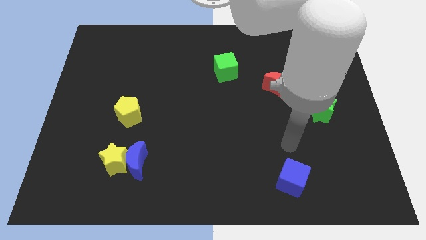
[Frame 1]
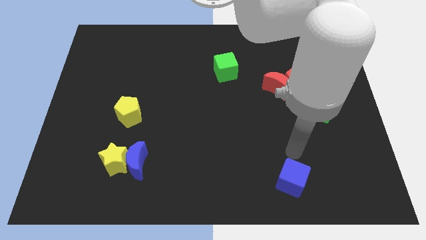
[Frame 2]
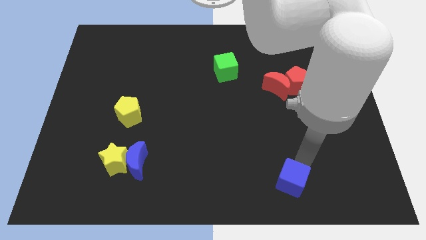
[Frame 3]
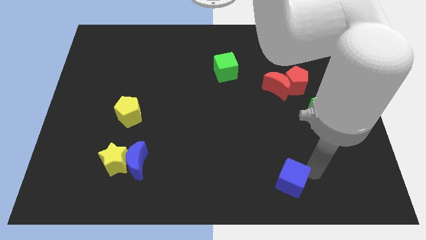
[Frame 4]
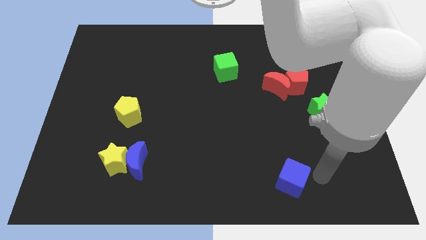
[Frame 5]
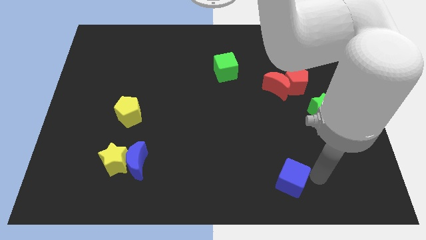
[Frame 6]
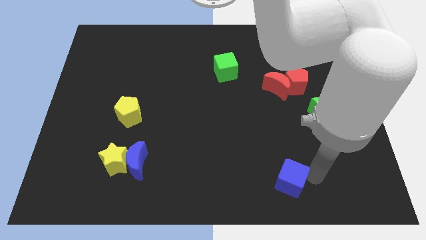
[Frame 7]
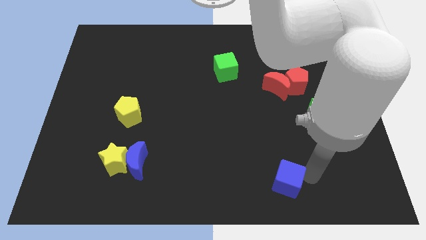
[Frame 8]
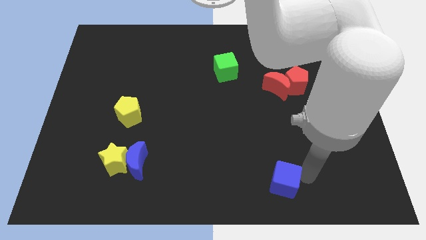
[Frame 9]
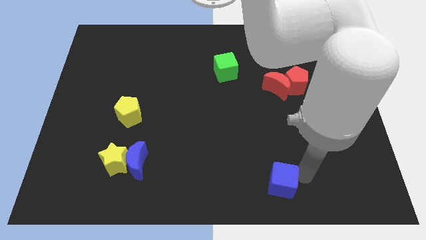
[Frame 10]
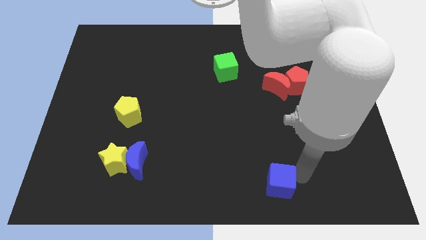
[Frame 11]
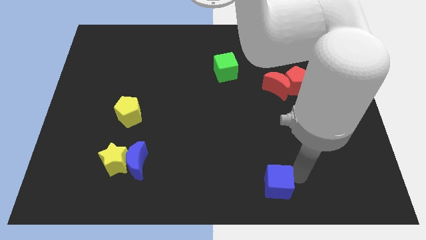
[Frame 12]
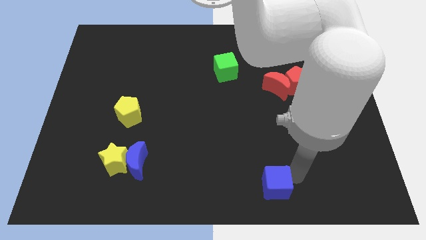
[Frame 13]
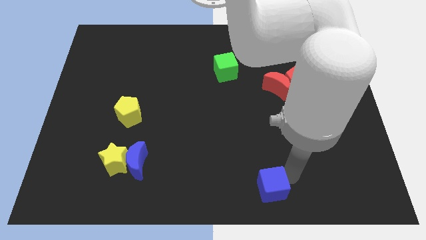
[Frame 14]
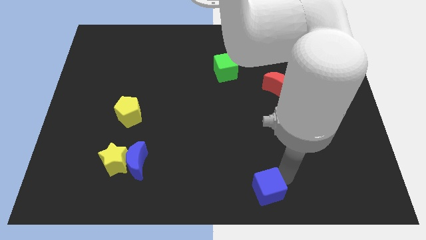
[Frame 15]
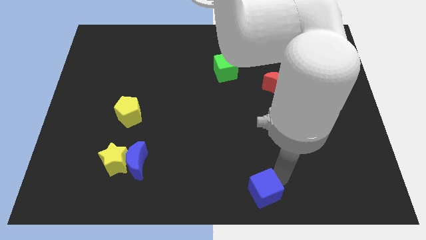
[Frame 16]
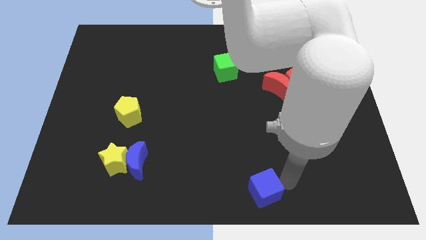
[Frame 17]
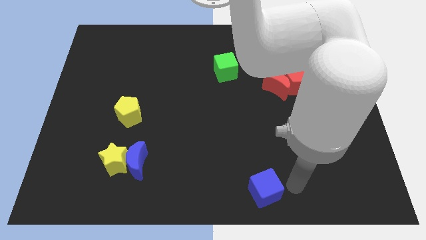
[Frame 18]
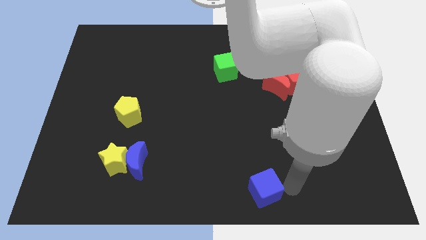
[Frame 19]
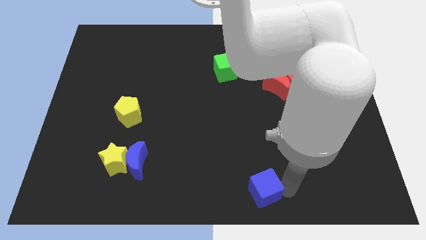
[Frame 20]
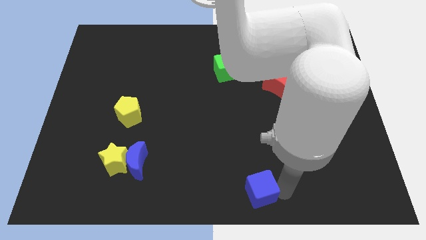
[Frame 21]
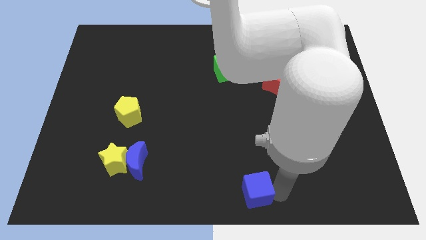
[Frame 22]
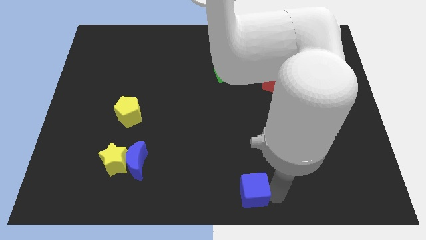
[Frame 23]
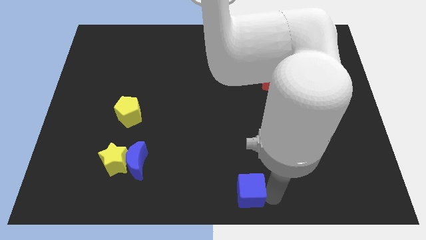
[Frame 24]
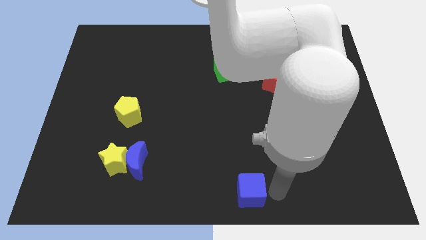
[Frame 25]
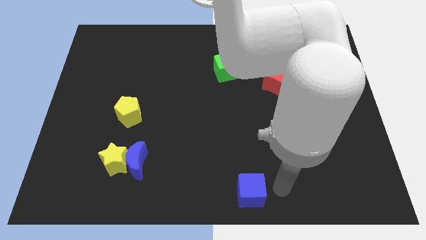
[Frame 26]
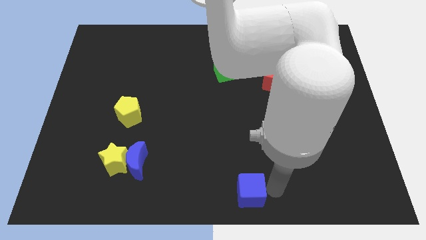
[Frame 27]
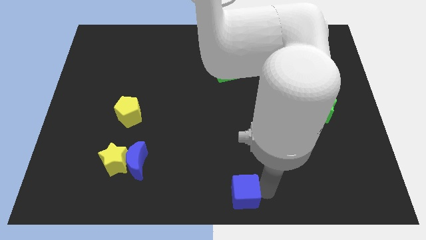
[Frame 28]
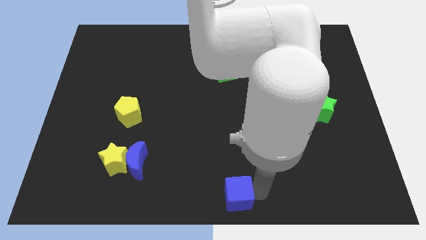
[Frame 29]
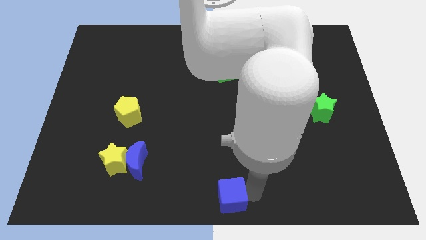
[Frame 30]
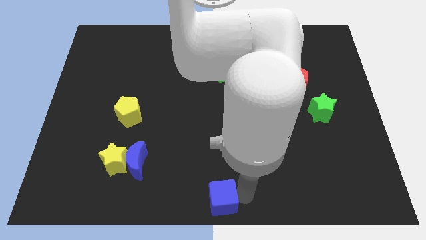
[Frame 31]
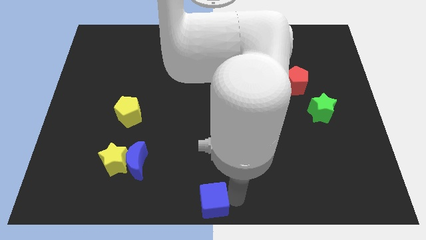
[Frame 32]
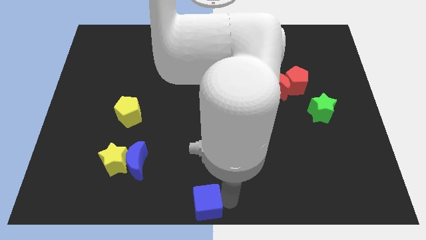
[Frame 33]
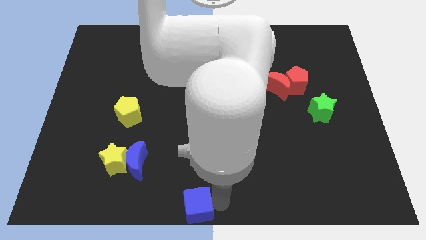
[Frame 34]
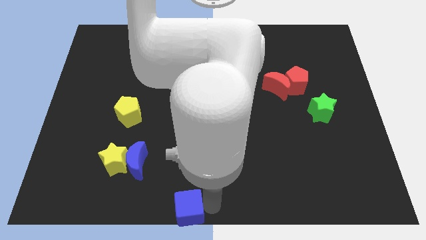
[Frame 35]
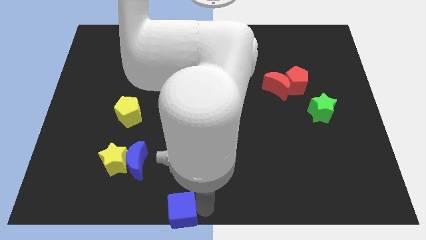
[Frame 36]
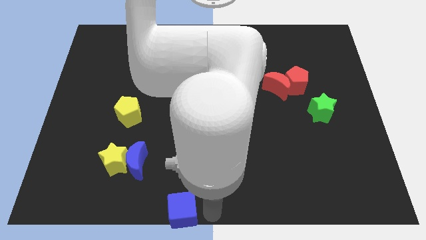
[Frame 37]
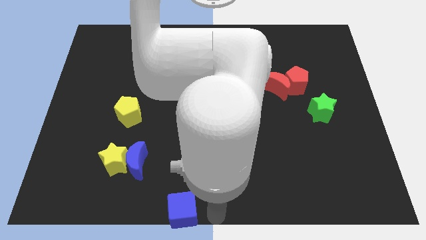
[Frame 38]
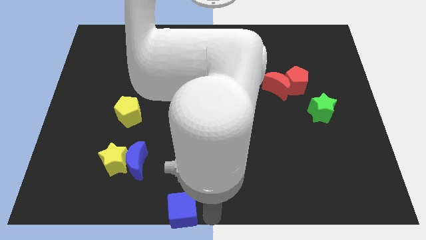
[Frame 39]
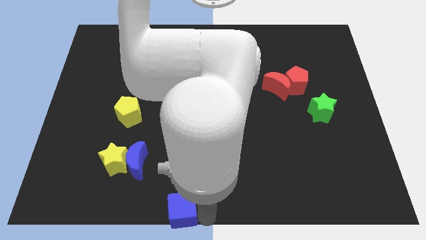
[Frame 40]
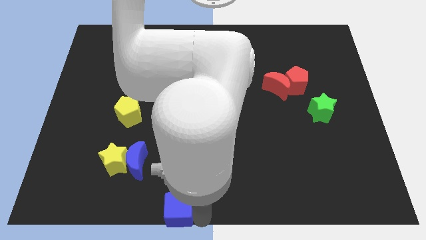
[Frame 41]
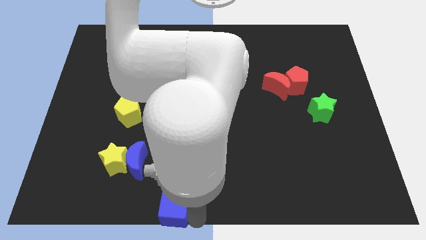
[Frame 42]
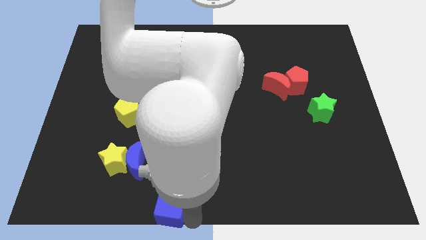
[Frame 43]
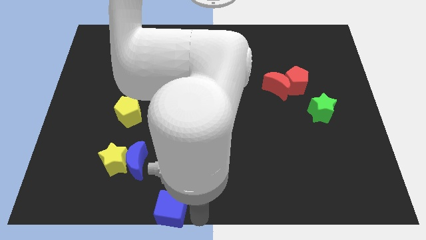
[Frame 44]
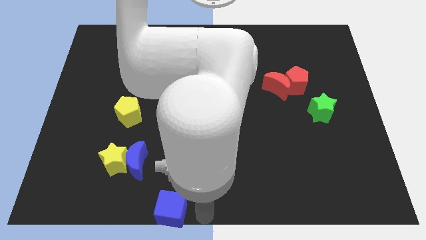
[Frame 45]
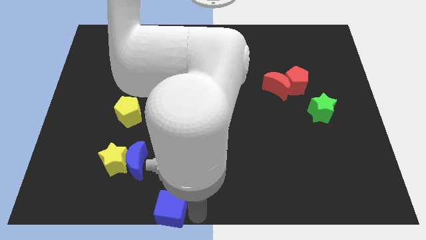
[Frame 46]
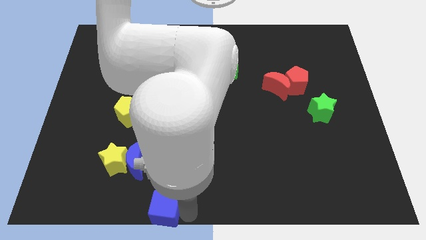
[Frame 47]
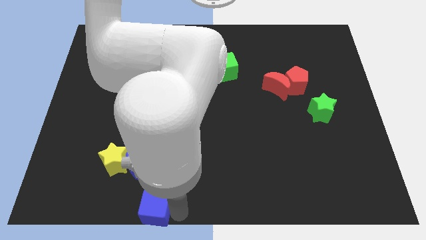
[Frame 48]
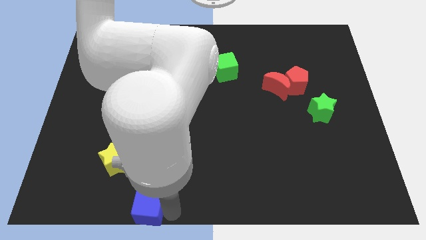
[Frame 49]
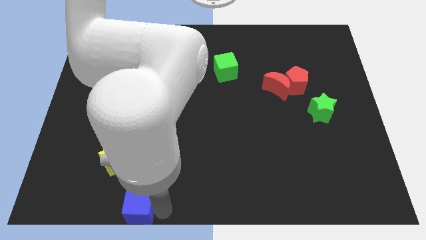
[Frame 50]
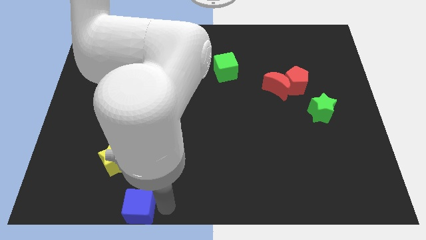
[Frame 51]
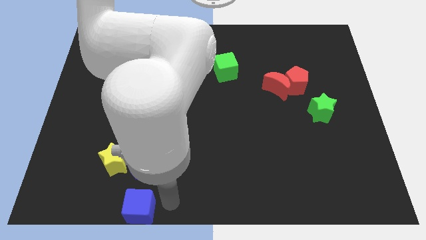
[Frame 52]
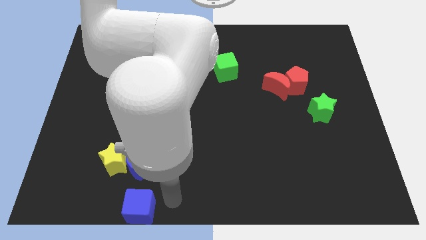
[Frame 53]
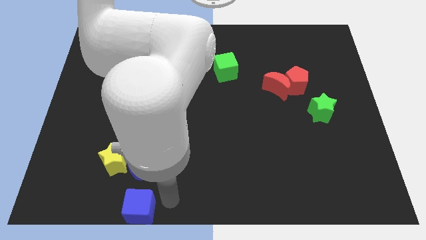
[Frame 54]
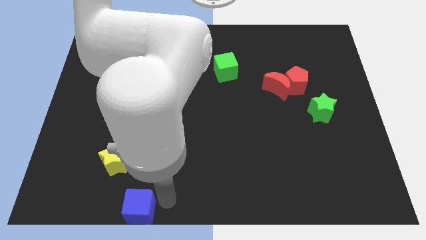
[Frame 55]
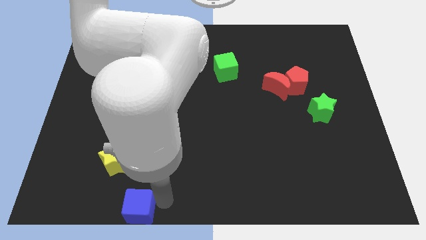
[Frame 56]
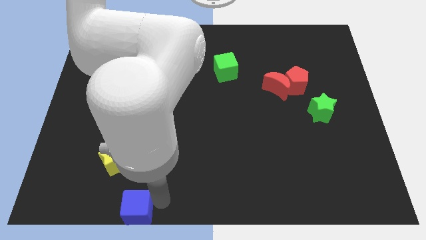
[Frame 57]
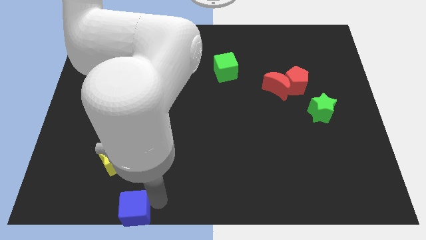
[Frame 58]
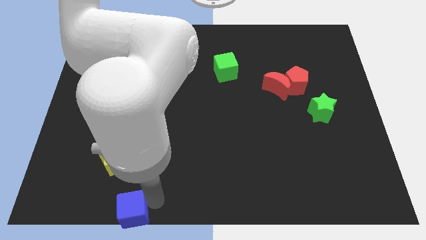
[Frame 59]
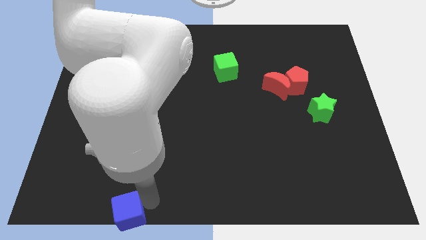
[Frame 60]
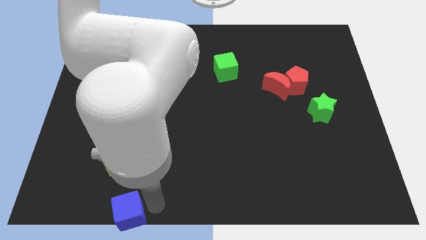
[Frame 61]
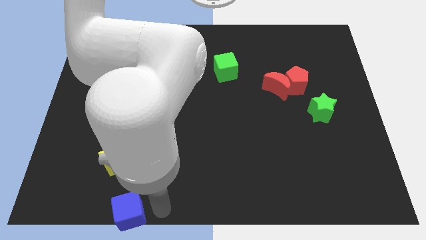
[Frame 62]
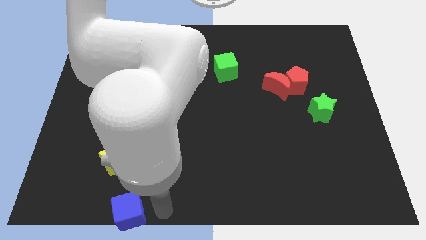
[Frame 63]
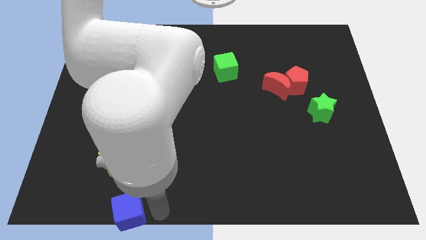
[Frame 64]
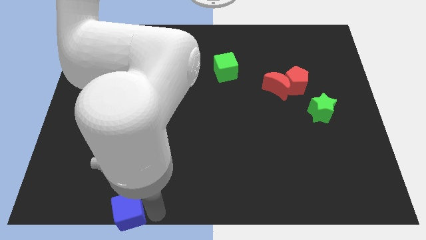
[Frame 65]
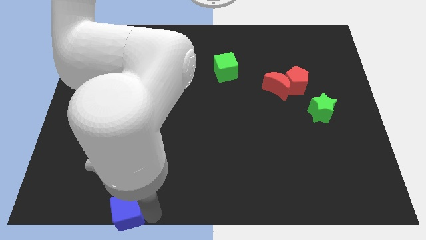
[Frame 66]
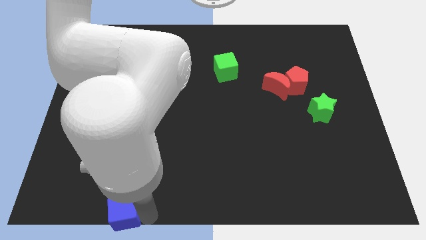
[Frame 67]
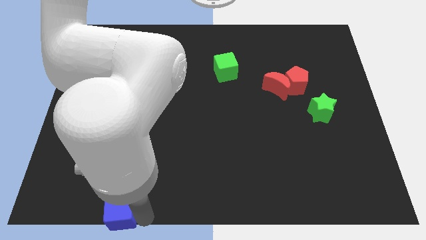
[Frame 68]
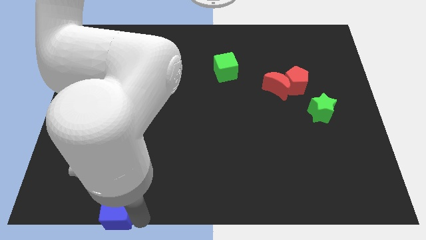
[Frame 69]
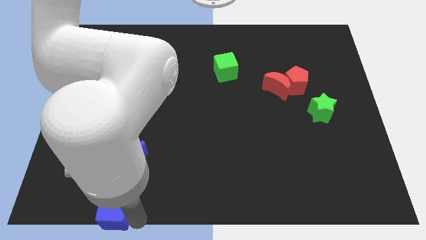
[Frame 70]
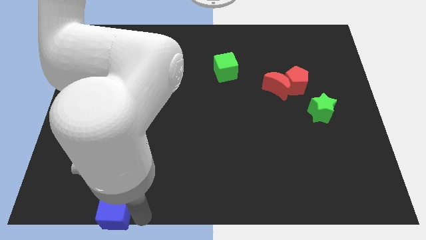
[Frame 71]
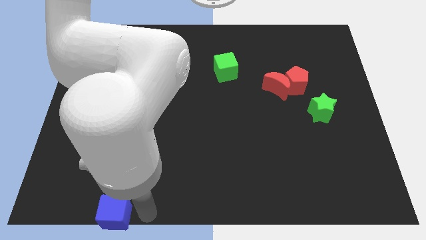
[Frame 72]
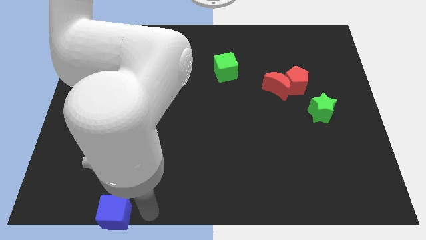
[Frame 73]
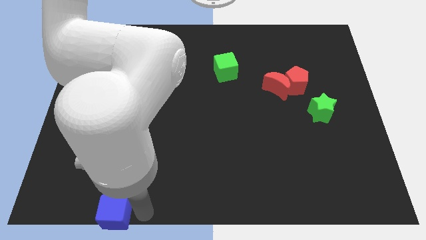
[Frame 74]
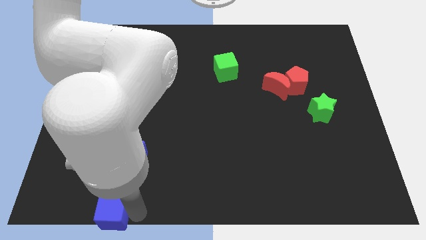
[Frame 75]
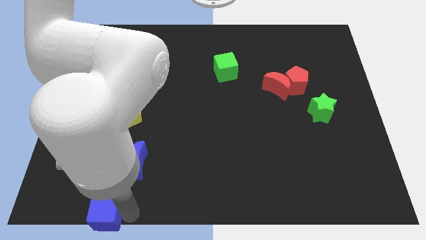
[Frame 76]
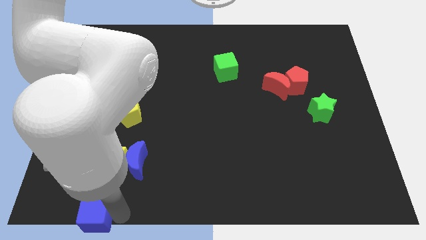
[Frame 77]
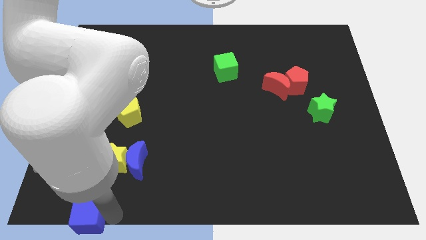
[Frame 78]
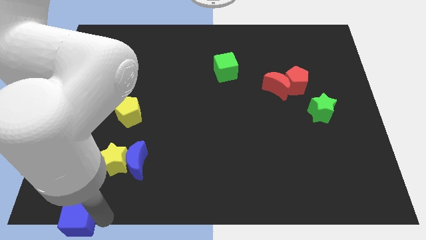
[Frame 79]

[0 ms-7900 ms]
slide the blue cube to the bottom left
